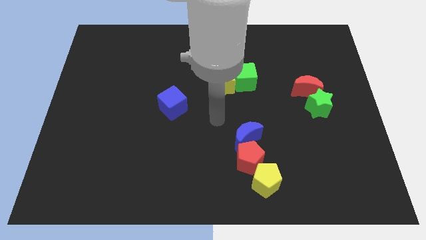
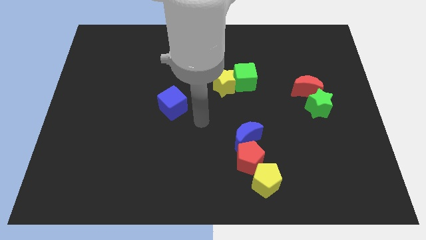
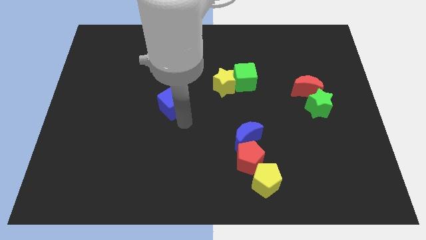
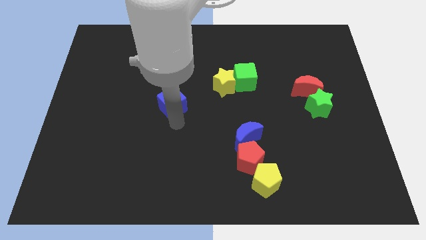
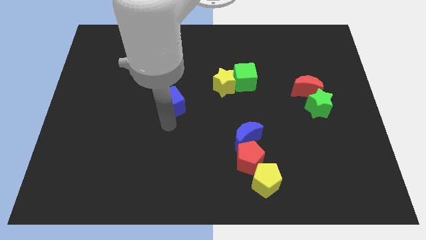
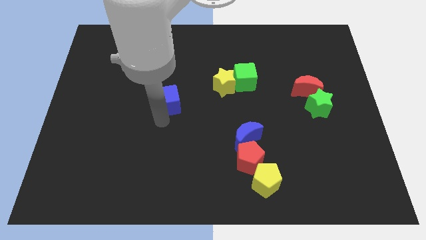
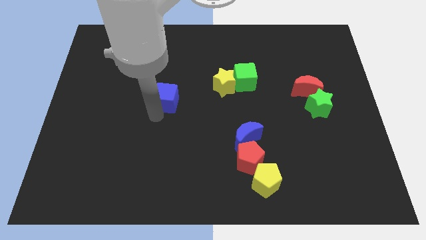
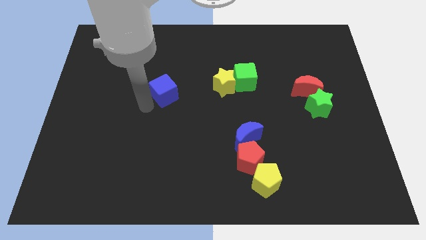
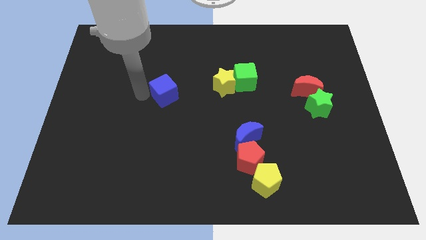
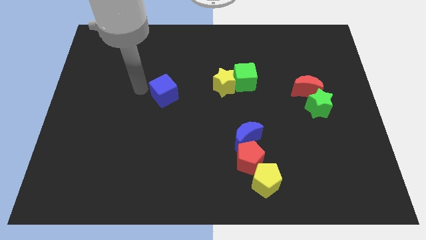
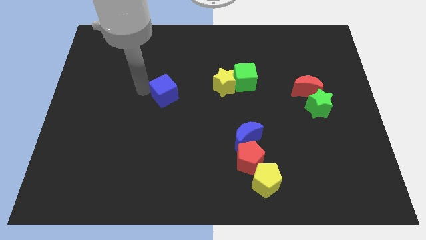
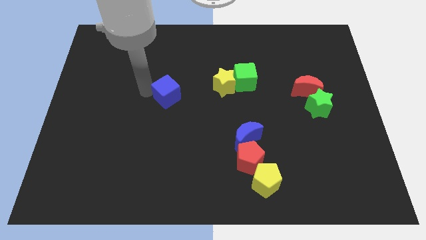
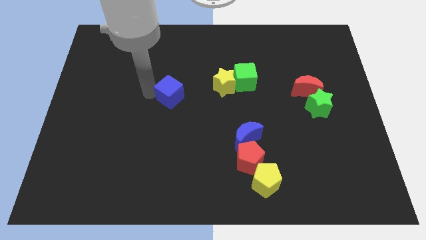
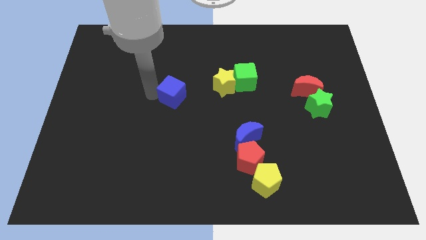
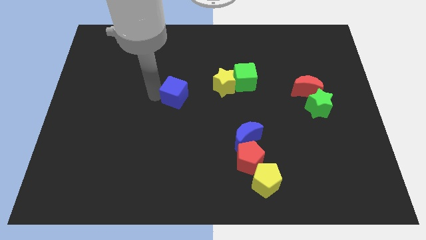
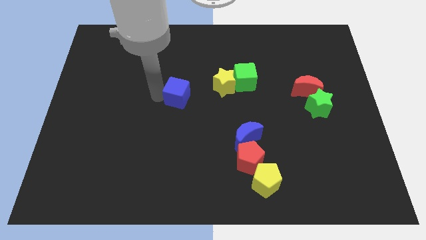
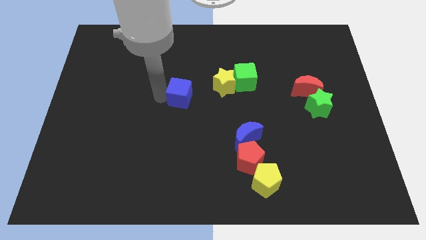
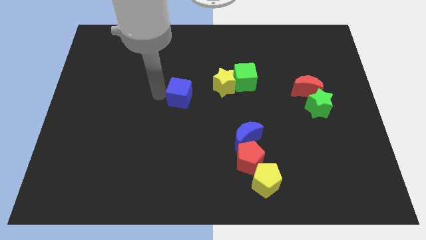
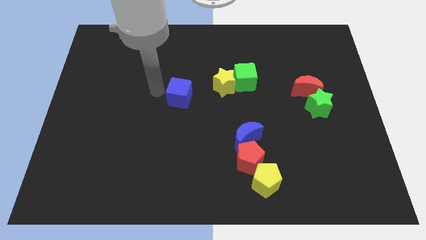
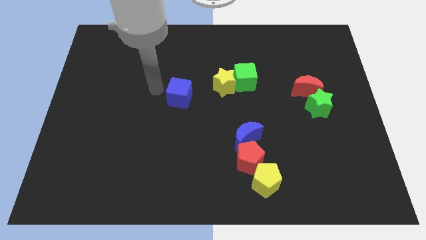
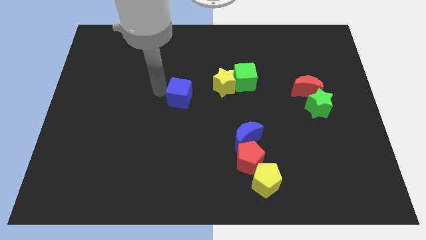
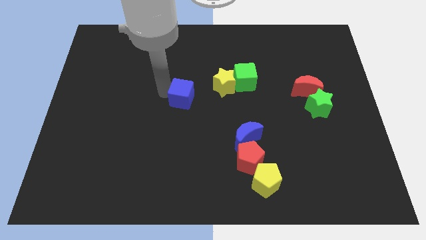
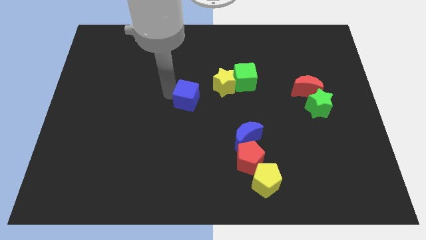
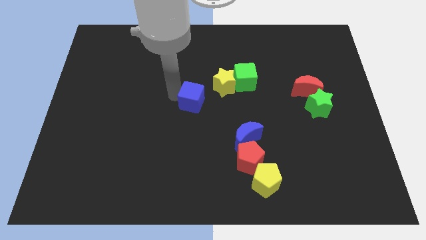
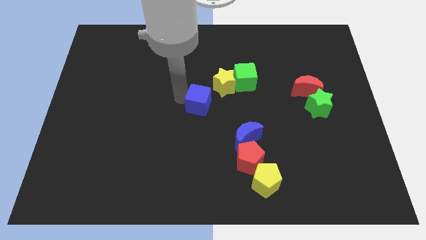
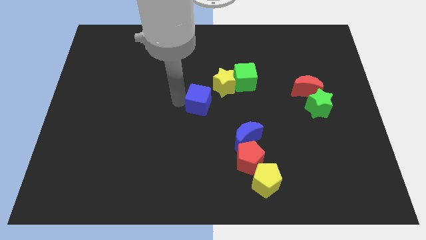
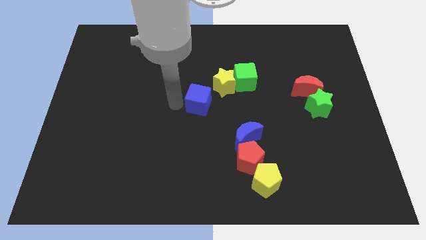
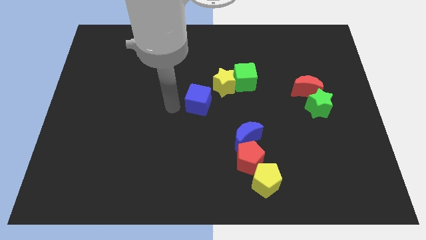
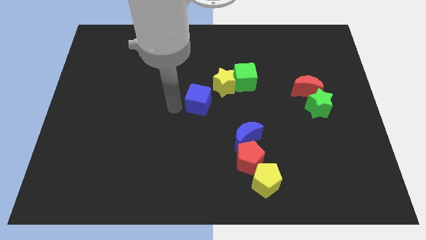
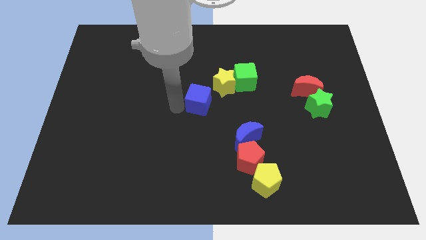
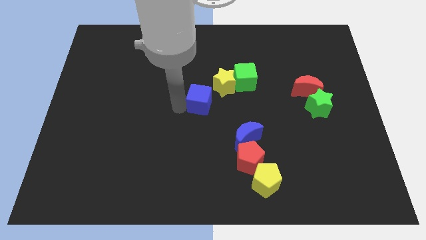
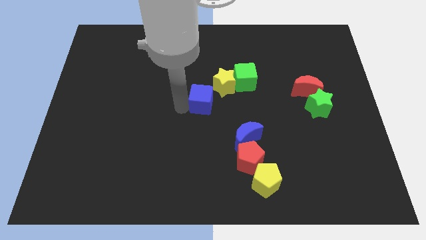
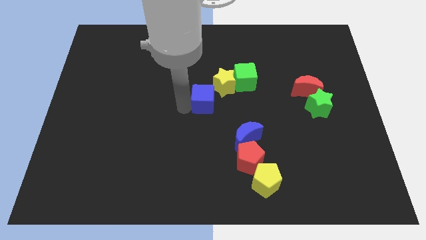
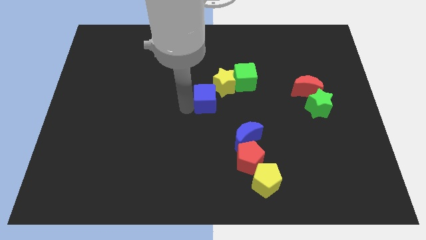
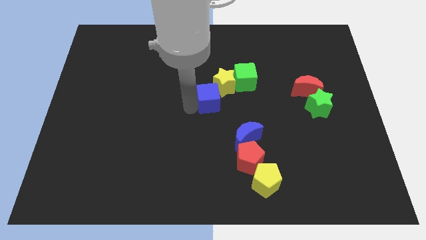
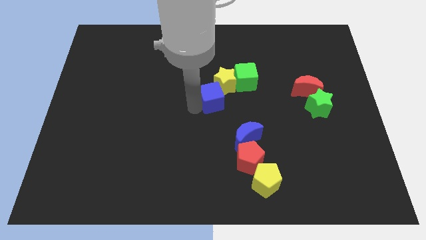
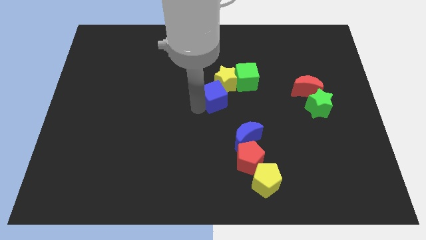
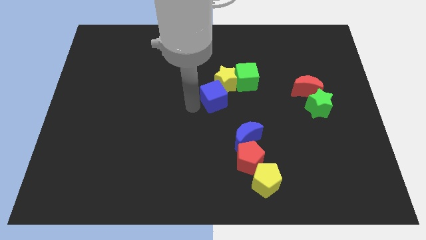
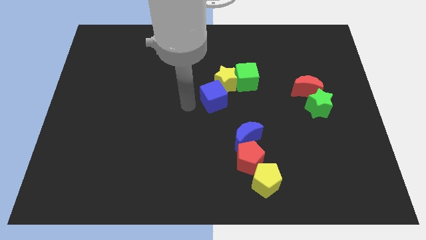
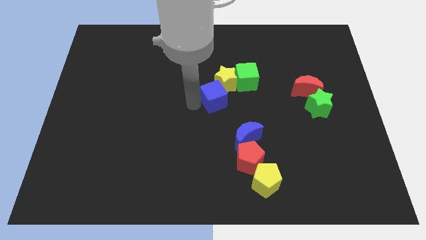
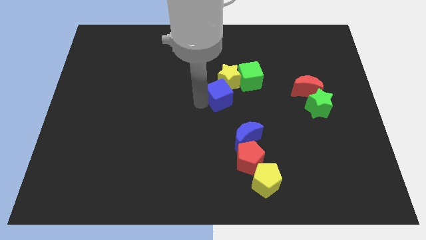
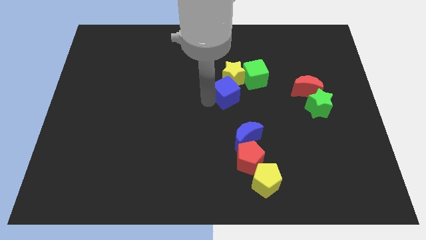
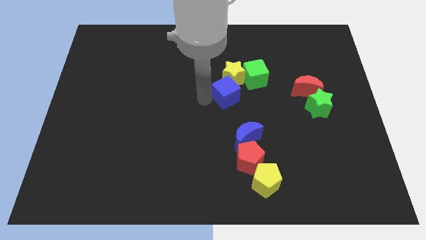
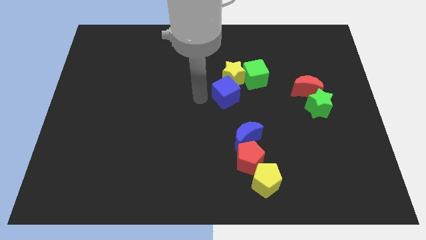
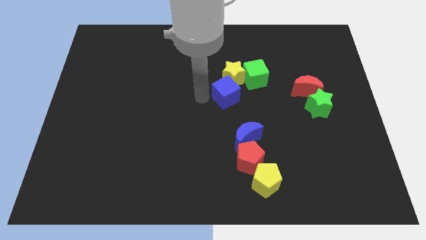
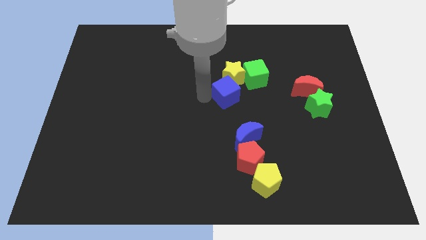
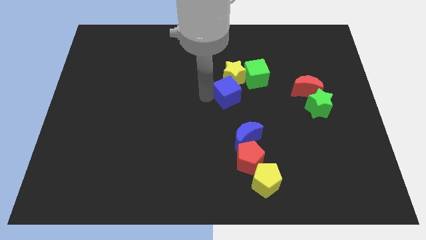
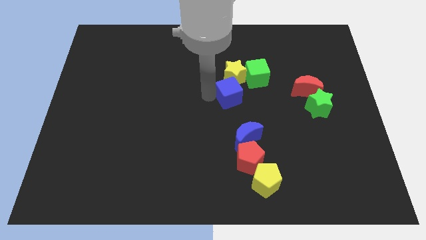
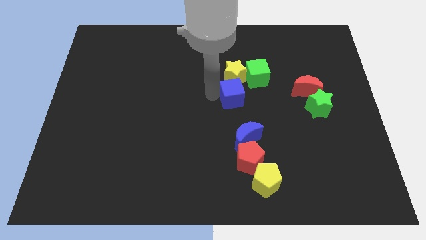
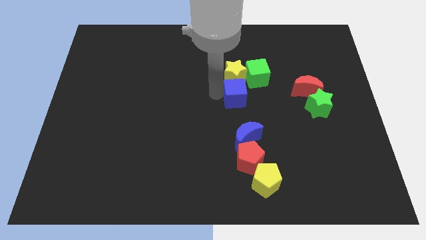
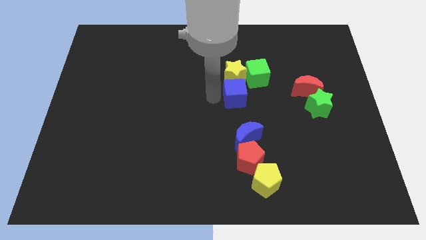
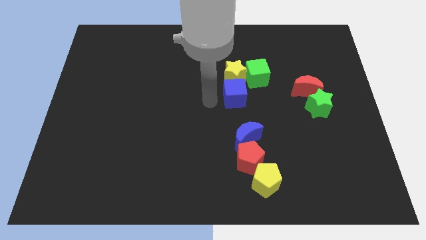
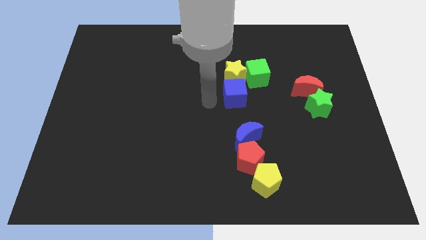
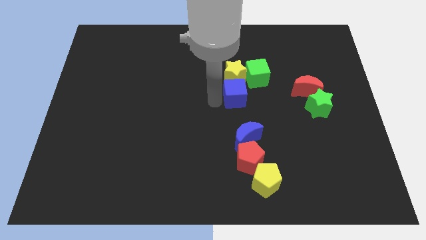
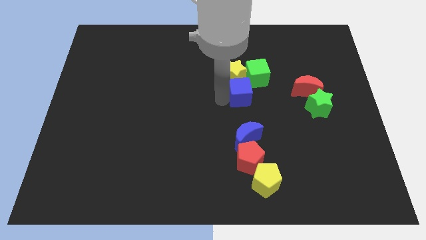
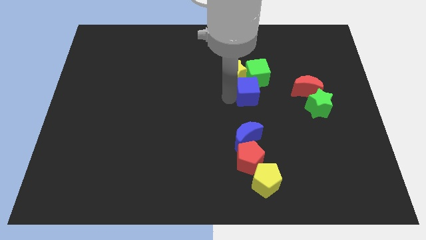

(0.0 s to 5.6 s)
move the blue cube left of the red moon
